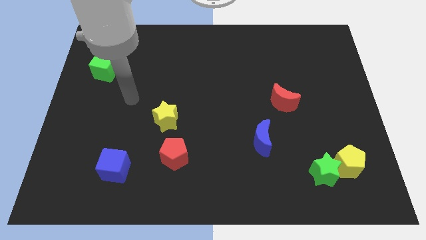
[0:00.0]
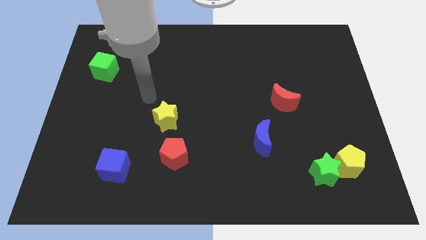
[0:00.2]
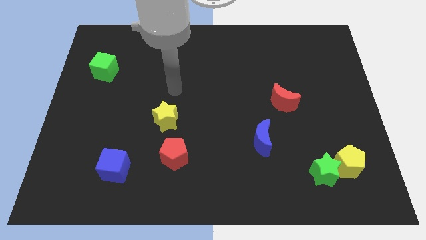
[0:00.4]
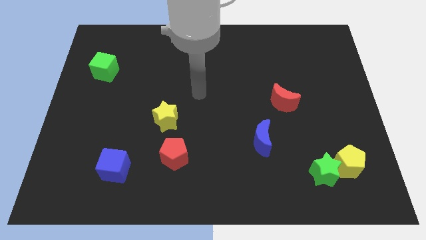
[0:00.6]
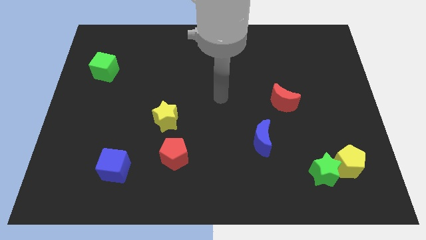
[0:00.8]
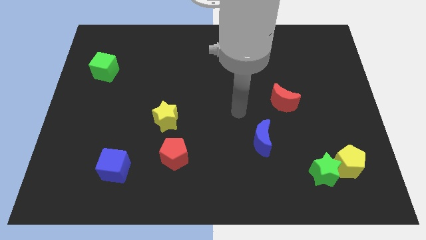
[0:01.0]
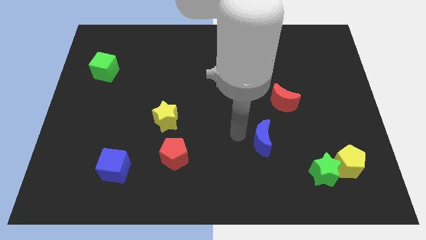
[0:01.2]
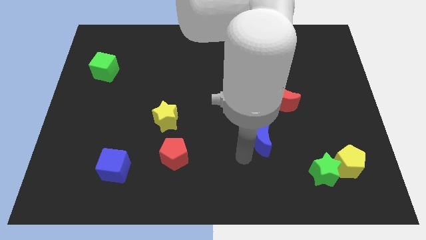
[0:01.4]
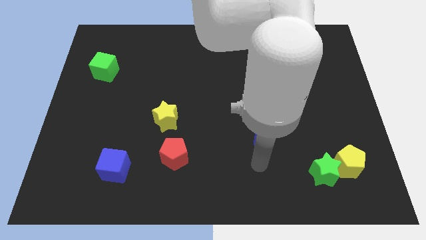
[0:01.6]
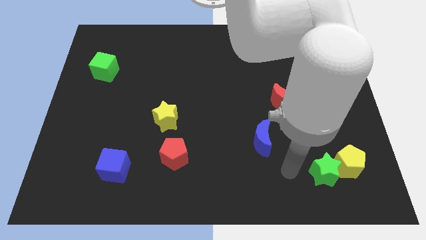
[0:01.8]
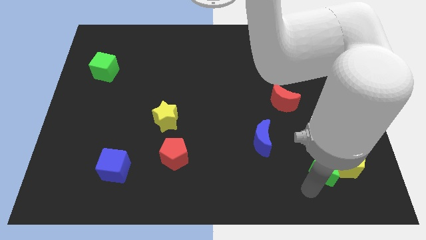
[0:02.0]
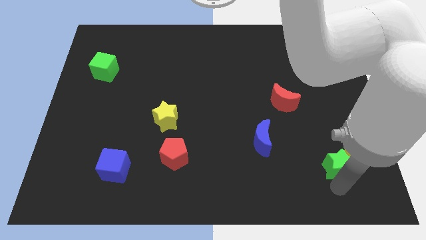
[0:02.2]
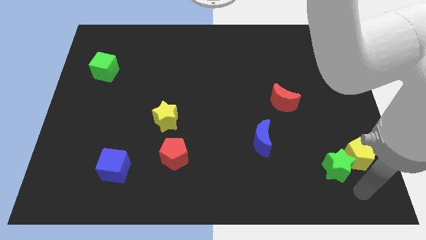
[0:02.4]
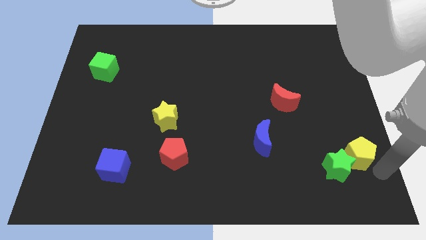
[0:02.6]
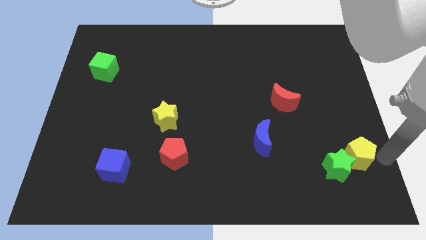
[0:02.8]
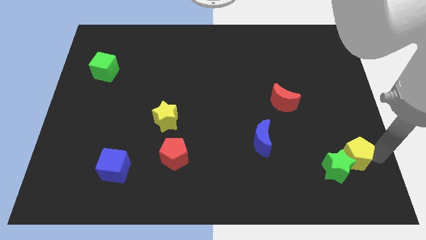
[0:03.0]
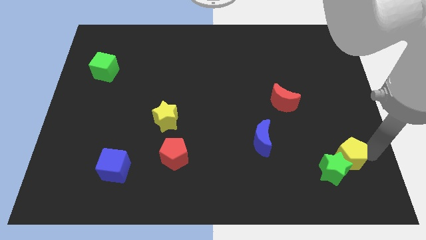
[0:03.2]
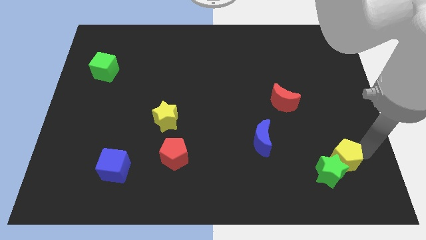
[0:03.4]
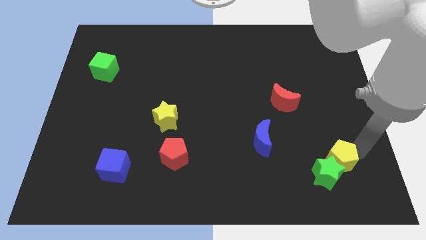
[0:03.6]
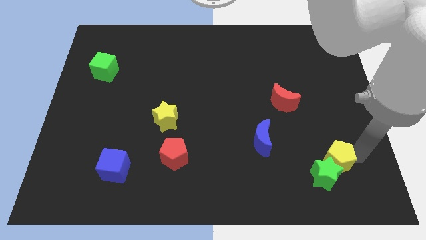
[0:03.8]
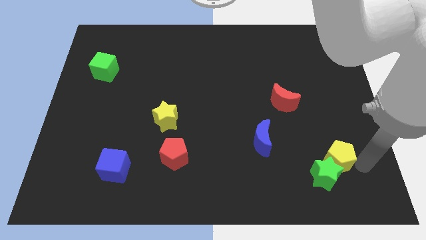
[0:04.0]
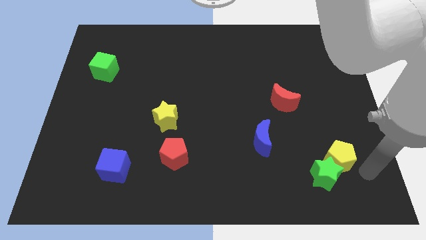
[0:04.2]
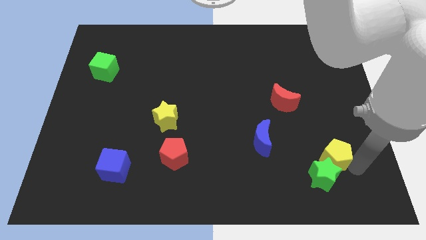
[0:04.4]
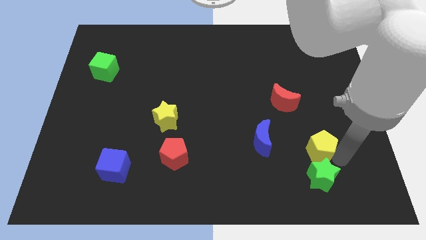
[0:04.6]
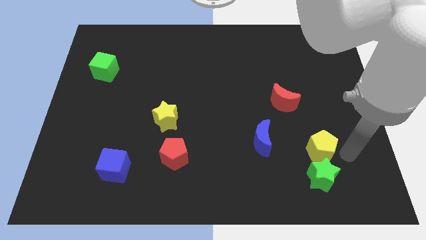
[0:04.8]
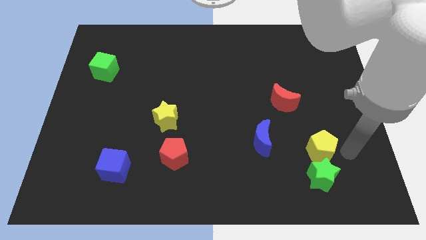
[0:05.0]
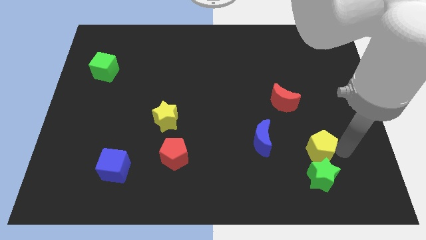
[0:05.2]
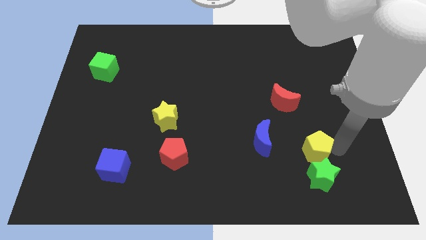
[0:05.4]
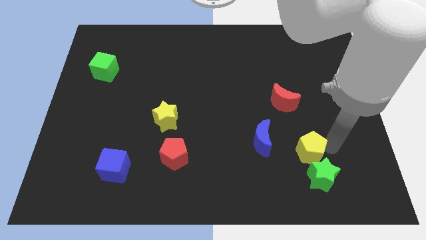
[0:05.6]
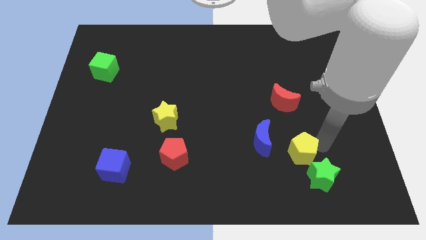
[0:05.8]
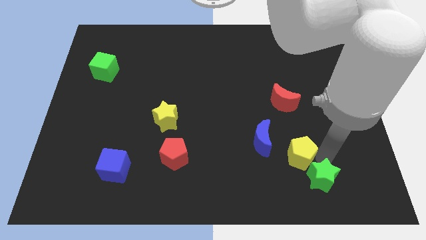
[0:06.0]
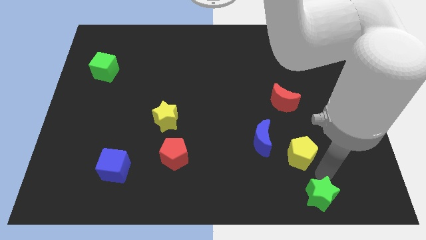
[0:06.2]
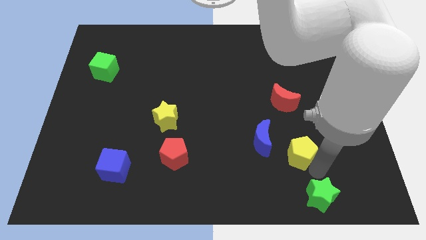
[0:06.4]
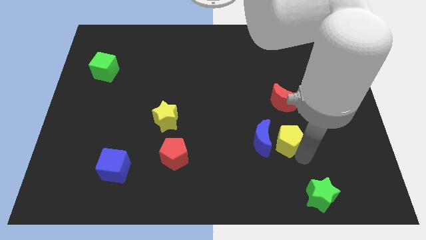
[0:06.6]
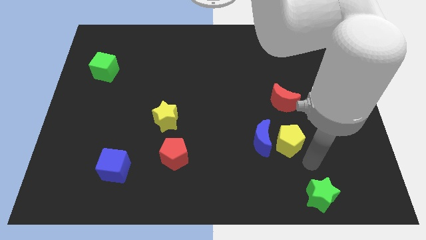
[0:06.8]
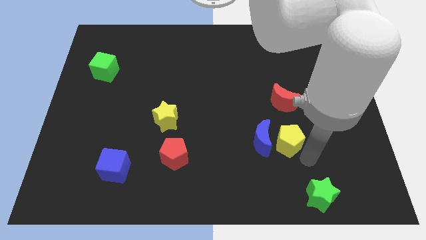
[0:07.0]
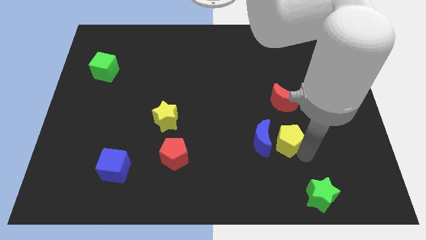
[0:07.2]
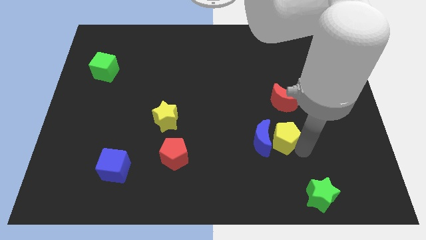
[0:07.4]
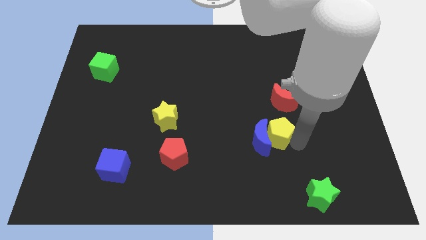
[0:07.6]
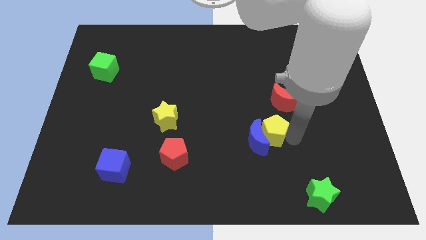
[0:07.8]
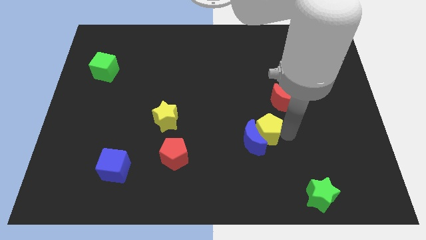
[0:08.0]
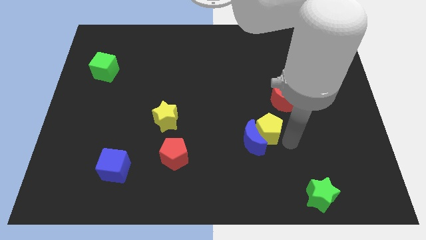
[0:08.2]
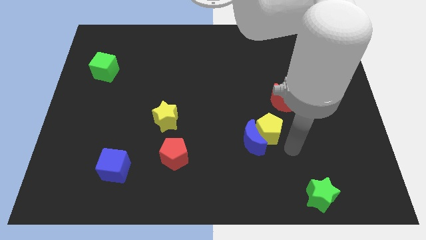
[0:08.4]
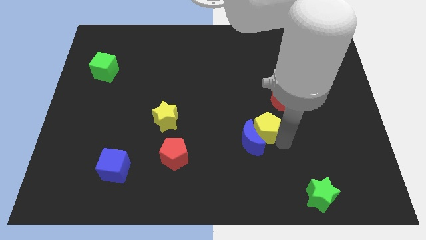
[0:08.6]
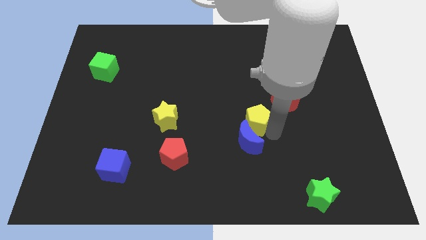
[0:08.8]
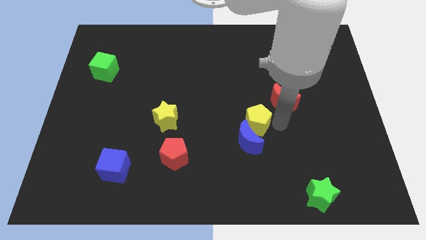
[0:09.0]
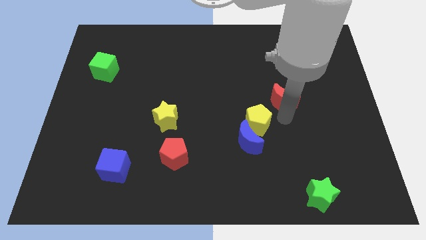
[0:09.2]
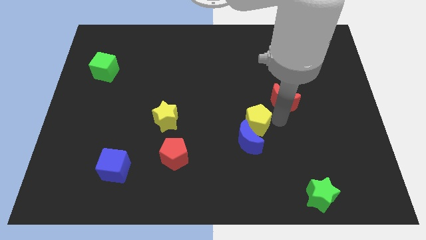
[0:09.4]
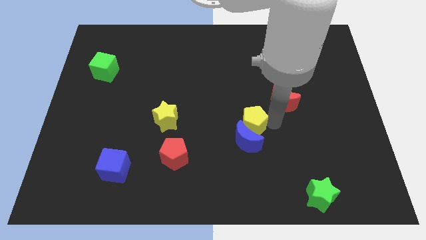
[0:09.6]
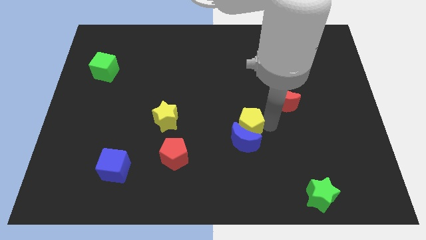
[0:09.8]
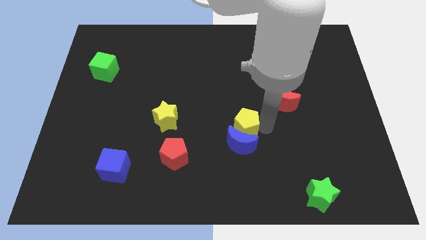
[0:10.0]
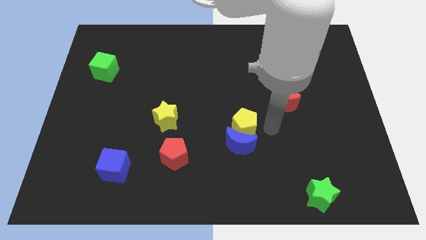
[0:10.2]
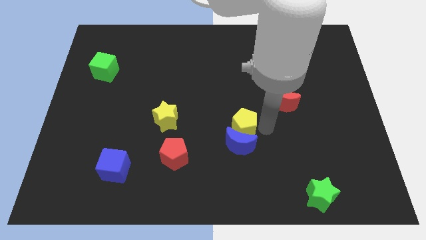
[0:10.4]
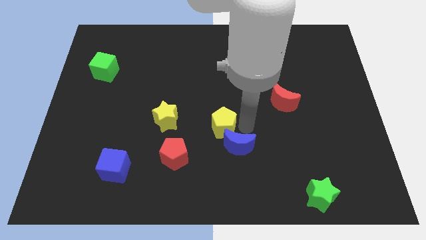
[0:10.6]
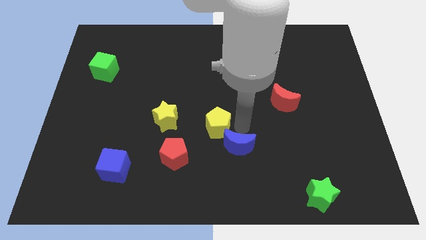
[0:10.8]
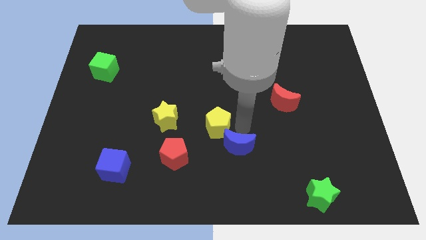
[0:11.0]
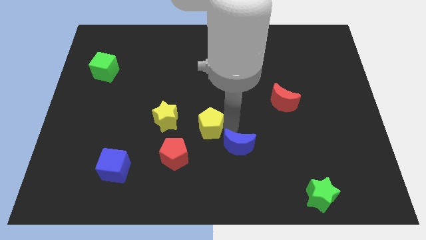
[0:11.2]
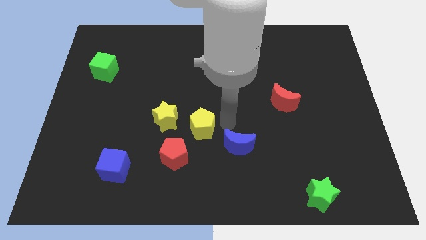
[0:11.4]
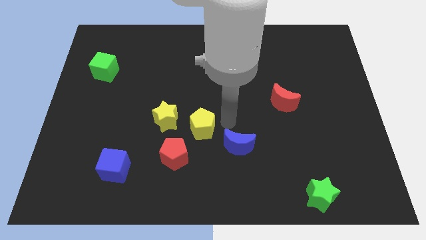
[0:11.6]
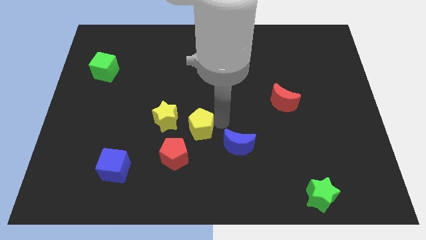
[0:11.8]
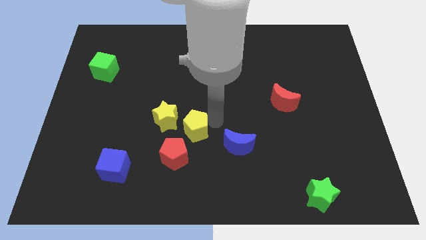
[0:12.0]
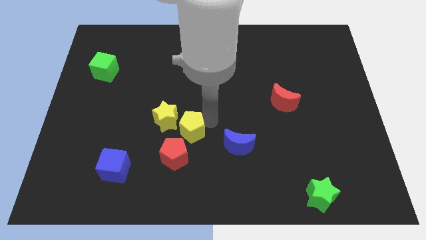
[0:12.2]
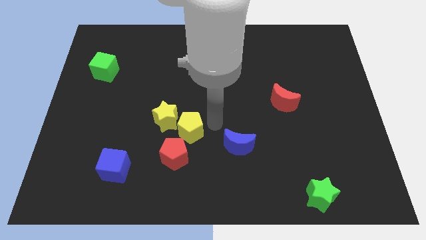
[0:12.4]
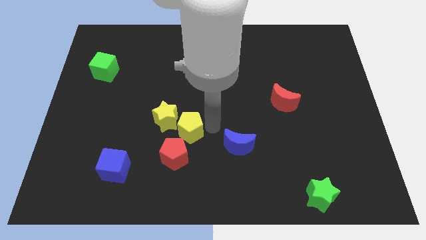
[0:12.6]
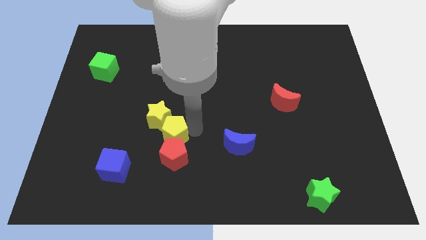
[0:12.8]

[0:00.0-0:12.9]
push the yellow pentagon to the top left side of the red pentagon

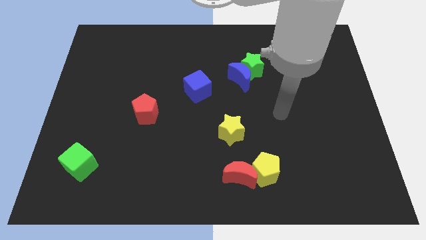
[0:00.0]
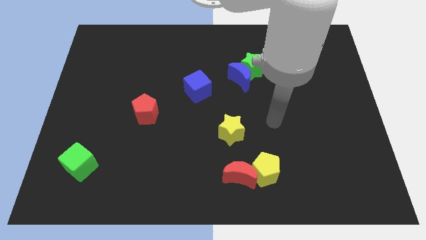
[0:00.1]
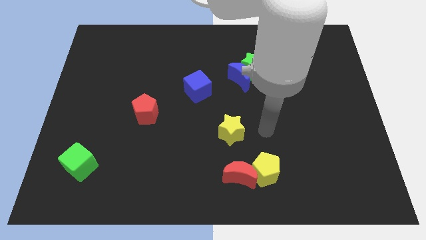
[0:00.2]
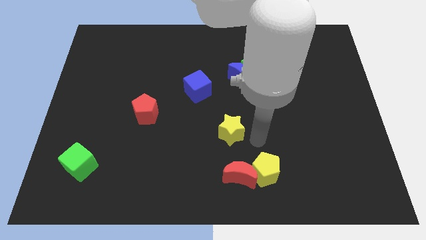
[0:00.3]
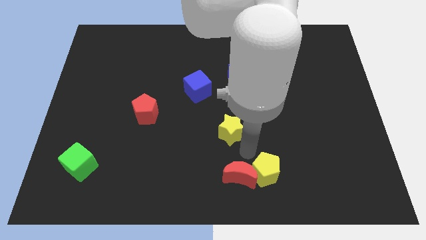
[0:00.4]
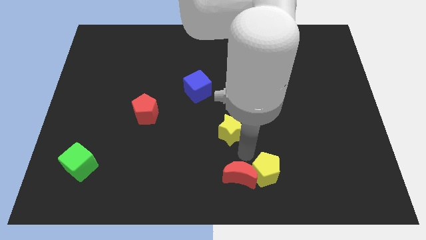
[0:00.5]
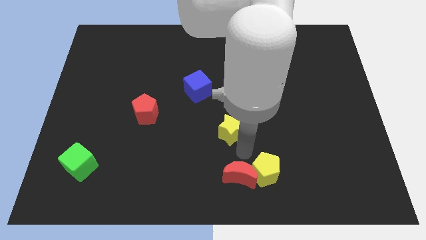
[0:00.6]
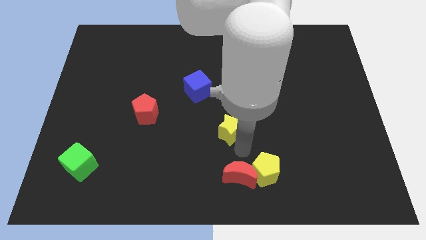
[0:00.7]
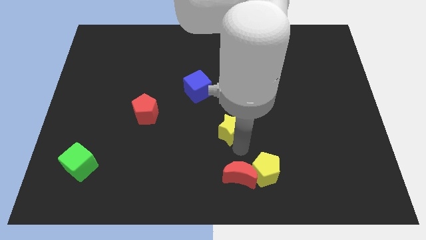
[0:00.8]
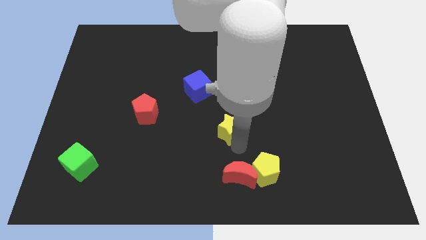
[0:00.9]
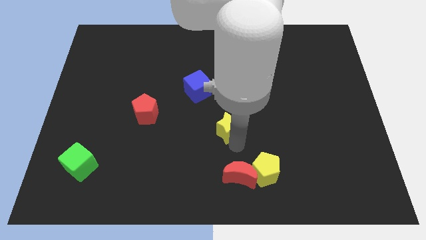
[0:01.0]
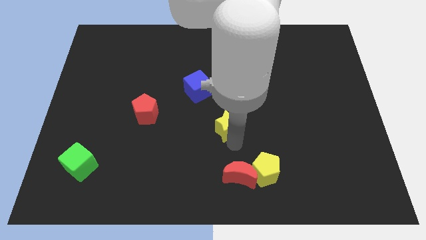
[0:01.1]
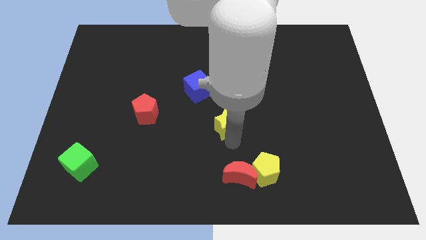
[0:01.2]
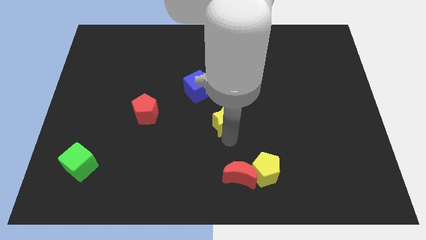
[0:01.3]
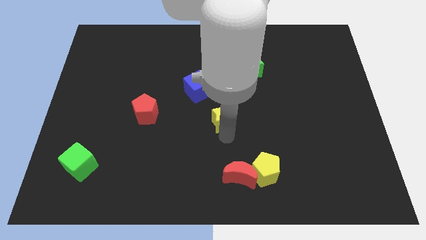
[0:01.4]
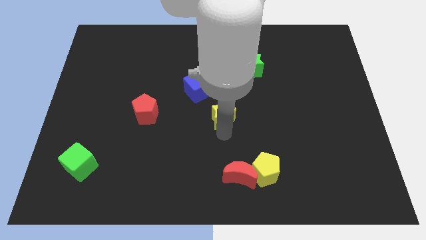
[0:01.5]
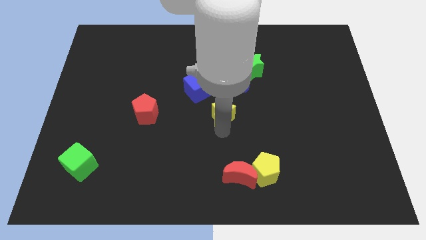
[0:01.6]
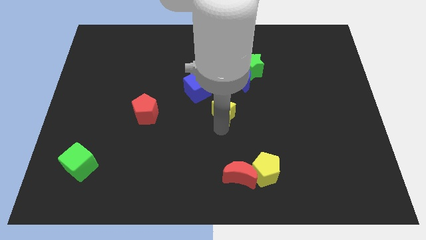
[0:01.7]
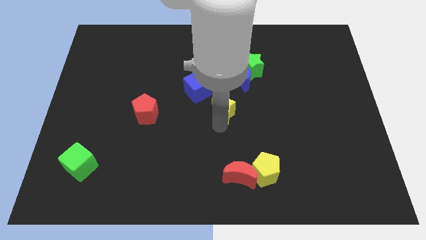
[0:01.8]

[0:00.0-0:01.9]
slide the yellow star to the bottom left side of the blue moon
